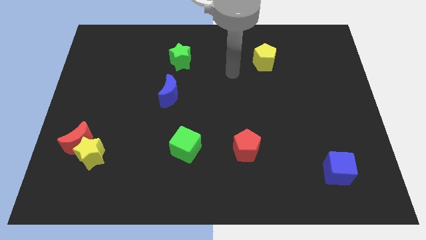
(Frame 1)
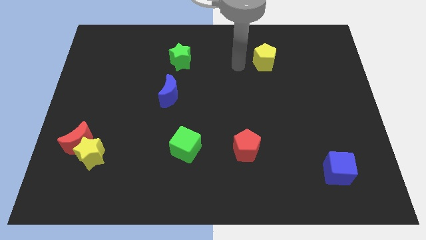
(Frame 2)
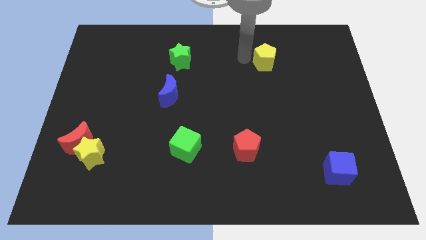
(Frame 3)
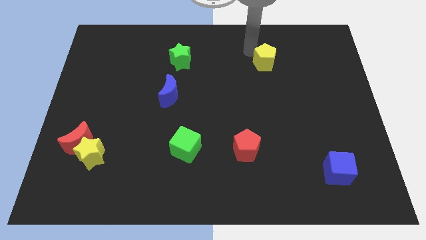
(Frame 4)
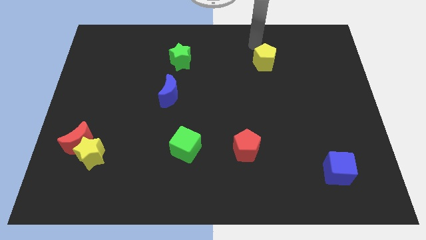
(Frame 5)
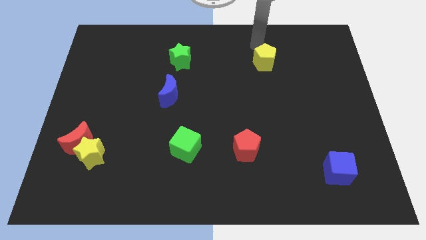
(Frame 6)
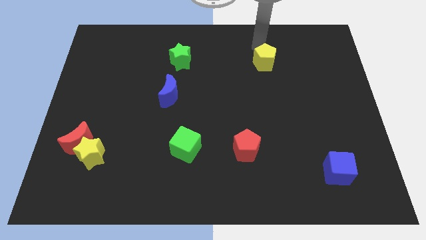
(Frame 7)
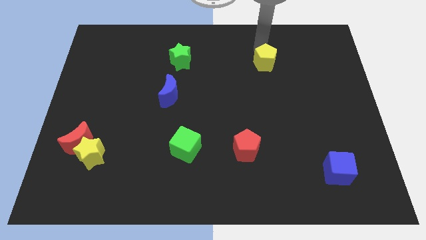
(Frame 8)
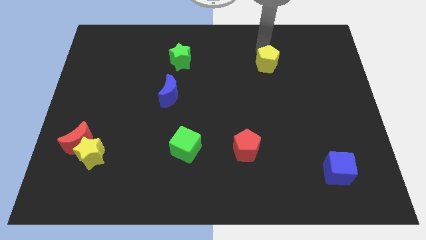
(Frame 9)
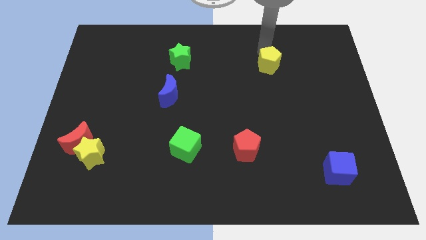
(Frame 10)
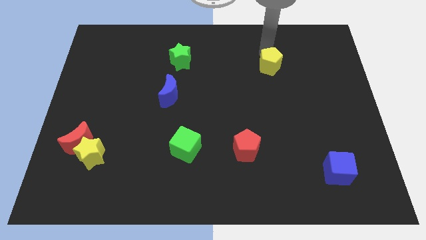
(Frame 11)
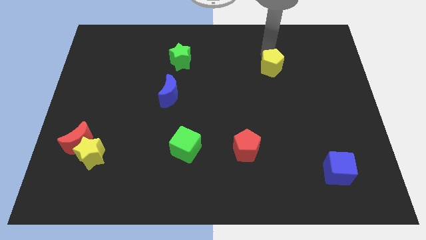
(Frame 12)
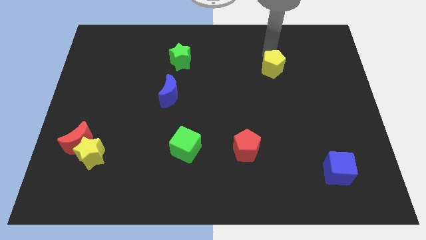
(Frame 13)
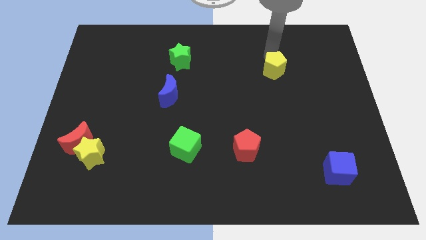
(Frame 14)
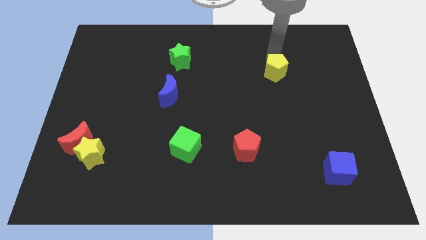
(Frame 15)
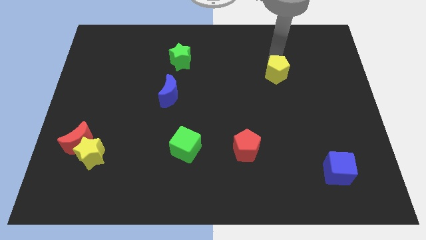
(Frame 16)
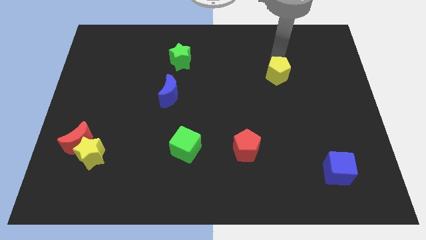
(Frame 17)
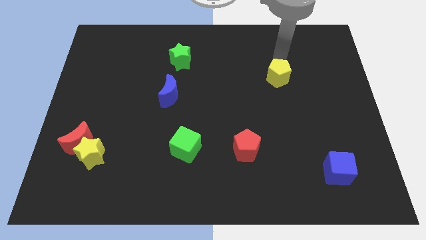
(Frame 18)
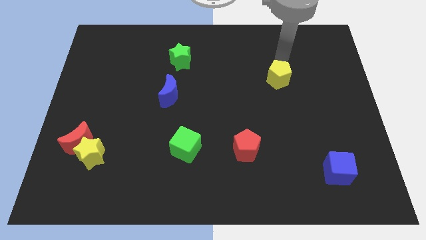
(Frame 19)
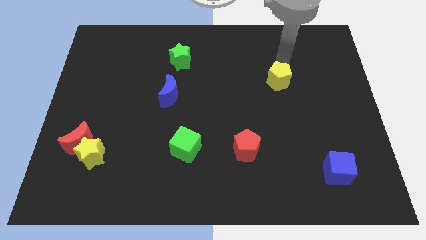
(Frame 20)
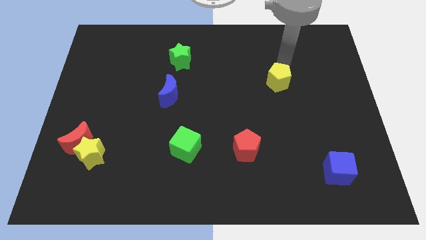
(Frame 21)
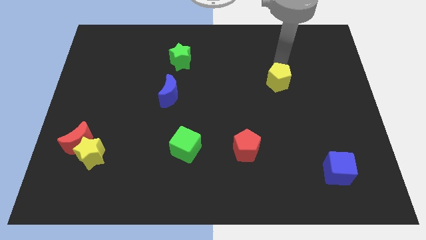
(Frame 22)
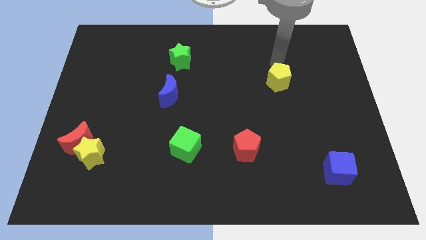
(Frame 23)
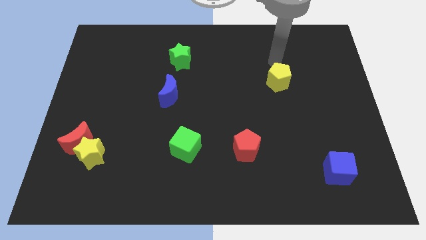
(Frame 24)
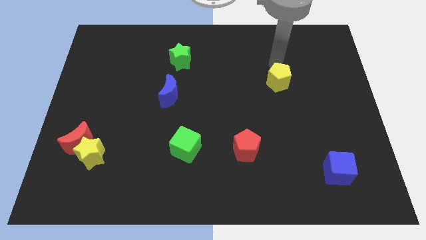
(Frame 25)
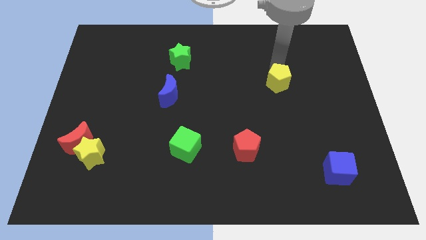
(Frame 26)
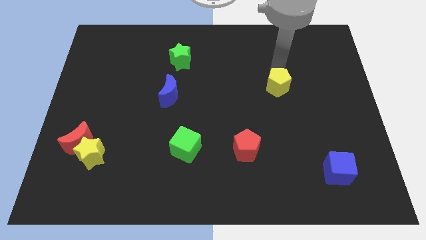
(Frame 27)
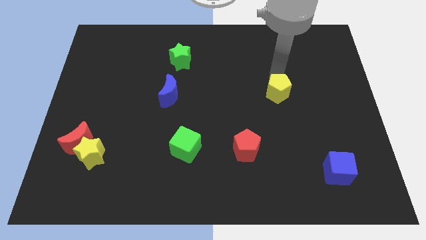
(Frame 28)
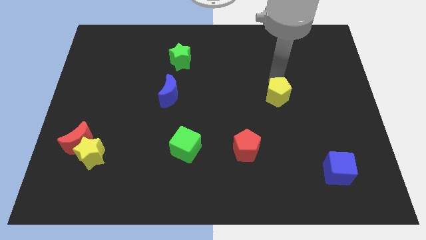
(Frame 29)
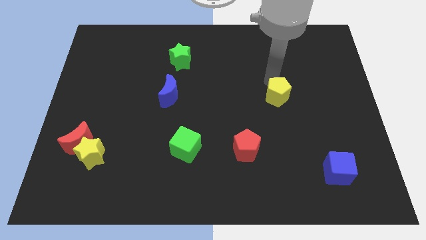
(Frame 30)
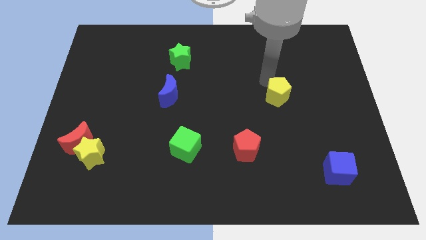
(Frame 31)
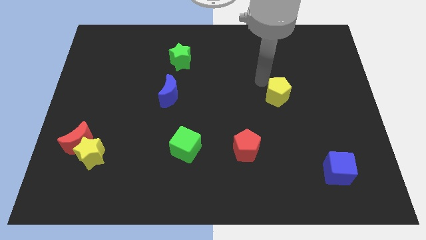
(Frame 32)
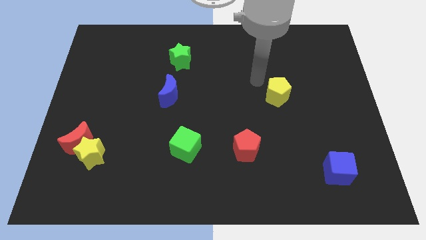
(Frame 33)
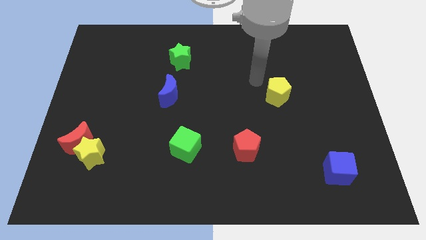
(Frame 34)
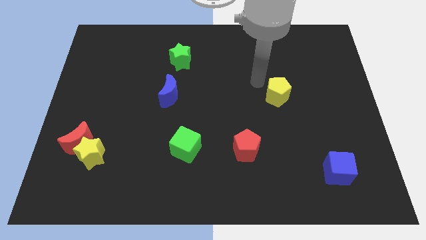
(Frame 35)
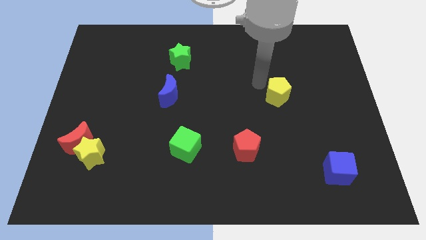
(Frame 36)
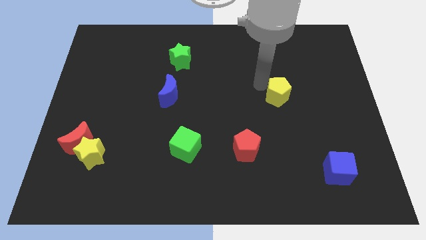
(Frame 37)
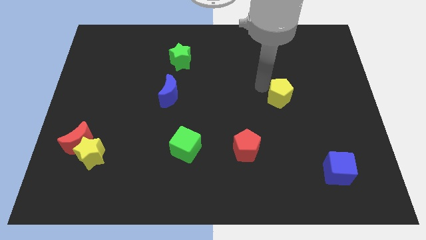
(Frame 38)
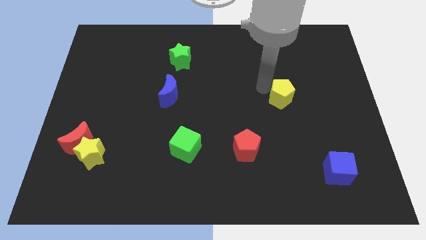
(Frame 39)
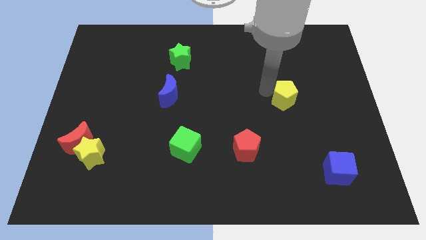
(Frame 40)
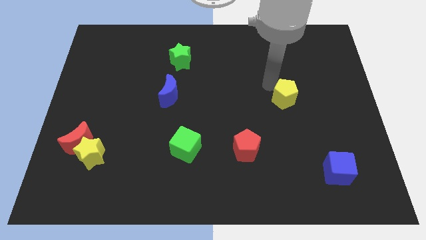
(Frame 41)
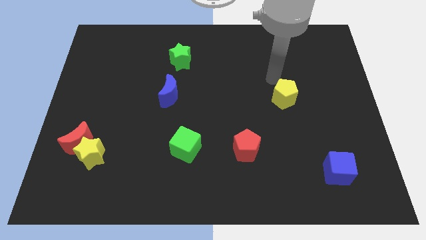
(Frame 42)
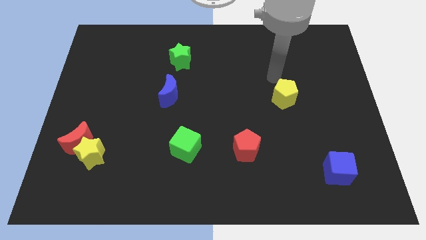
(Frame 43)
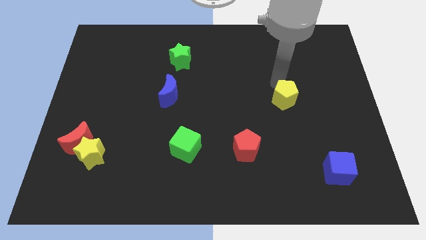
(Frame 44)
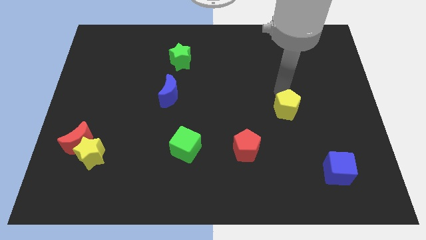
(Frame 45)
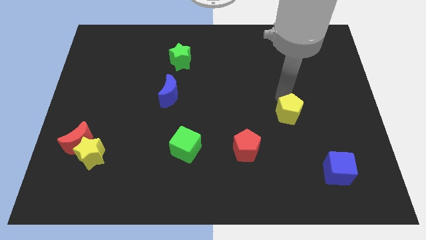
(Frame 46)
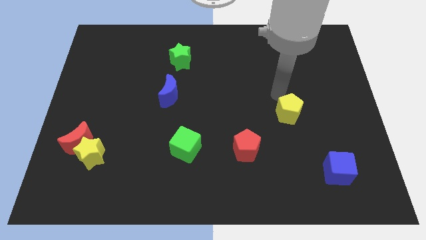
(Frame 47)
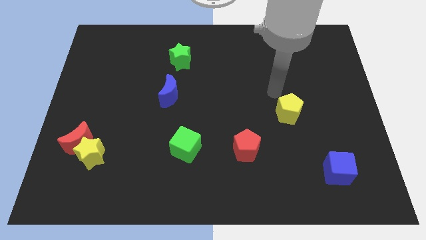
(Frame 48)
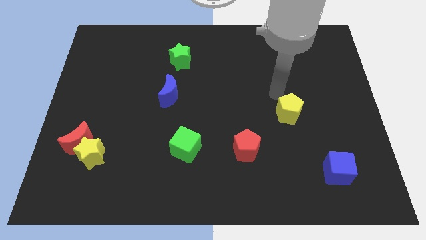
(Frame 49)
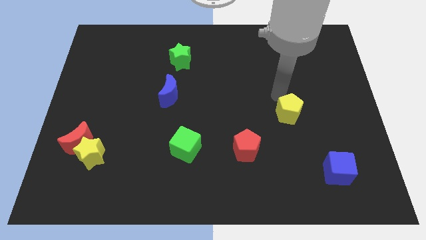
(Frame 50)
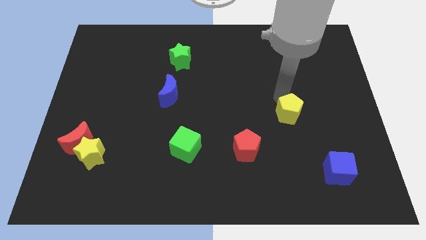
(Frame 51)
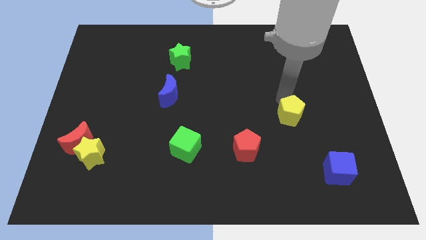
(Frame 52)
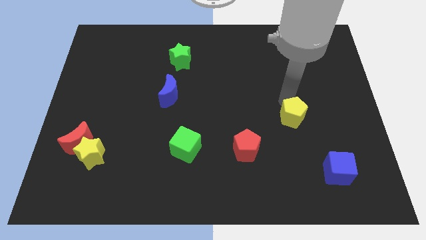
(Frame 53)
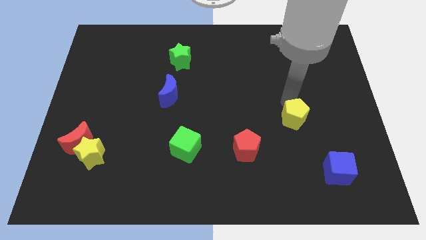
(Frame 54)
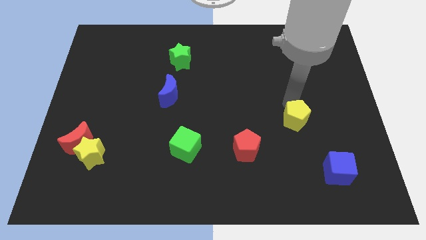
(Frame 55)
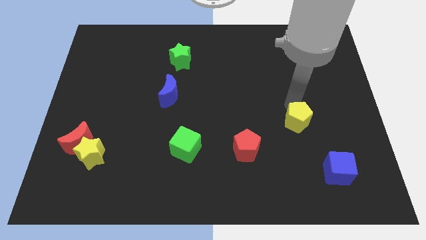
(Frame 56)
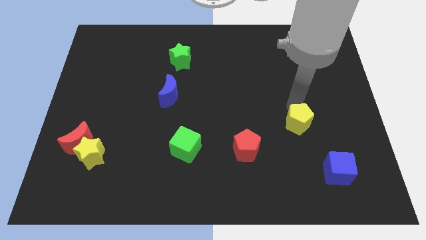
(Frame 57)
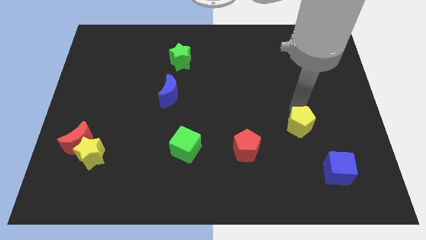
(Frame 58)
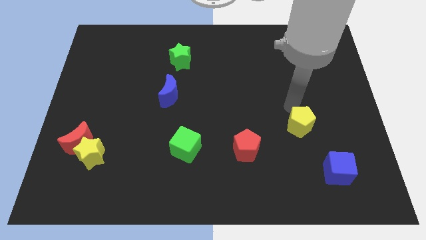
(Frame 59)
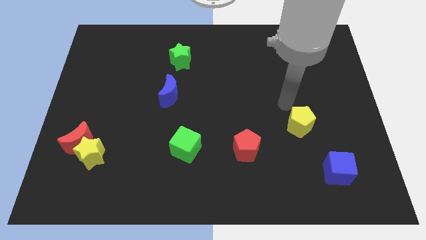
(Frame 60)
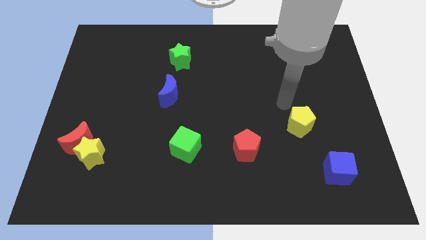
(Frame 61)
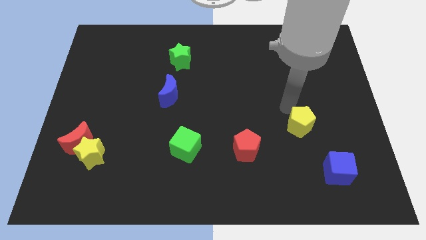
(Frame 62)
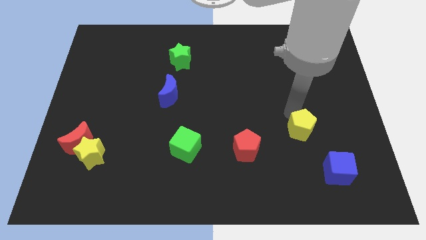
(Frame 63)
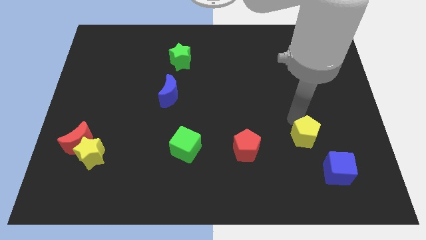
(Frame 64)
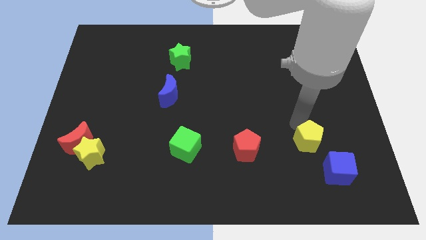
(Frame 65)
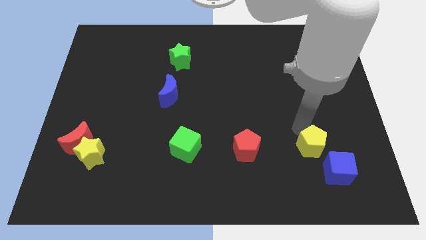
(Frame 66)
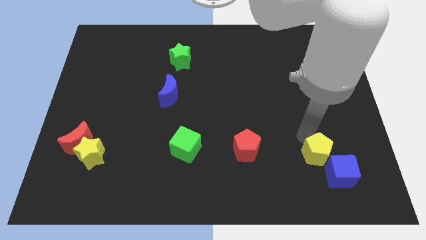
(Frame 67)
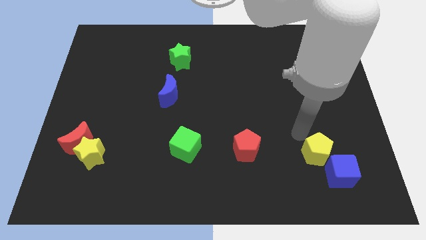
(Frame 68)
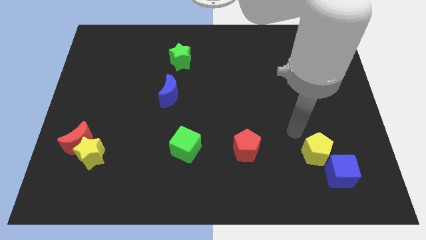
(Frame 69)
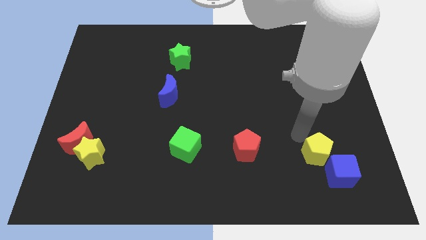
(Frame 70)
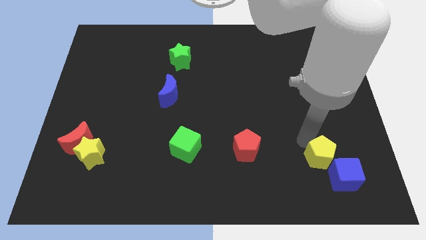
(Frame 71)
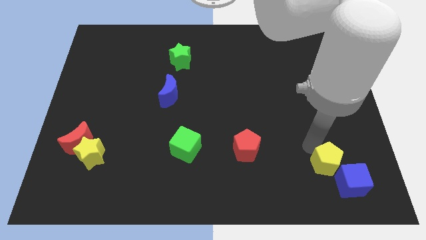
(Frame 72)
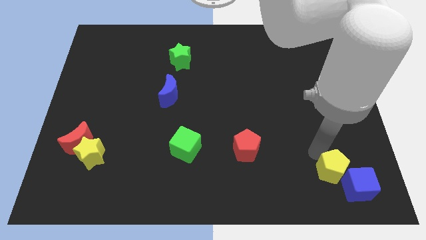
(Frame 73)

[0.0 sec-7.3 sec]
put the yellow pentagon towards the blue cube

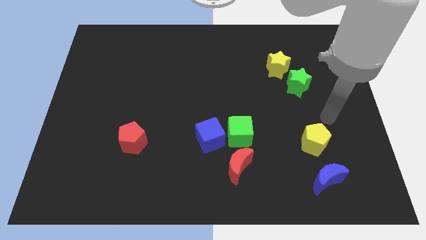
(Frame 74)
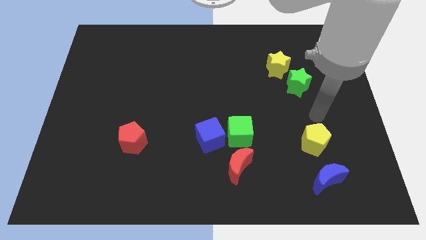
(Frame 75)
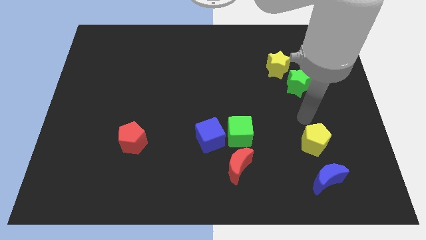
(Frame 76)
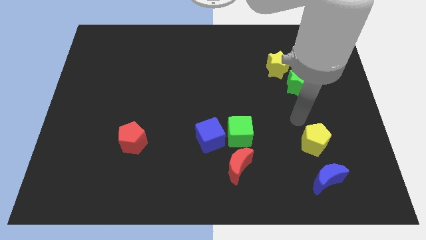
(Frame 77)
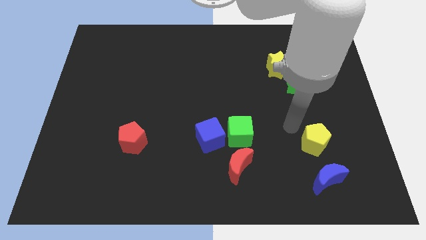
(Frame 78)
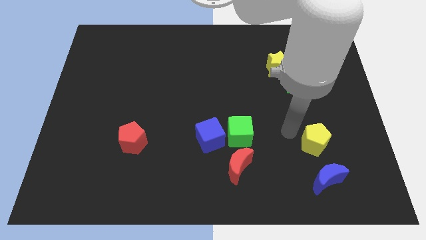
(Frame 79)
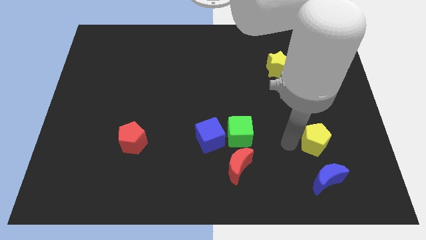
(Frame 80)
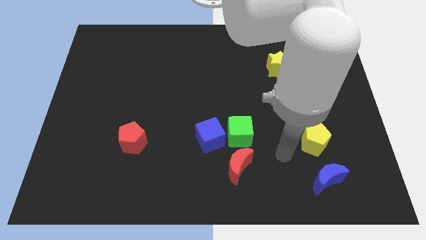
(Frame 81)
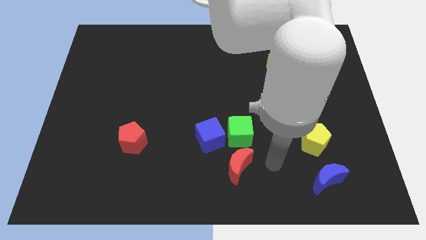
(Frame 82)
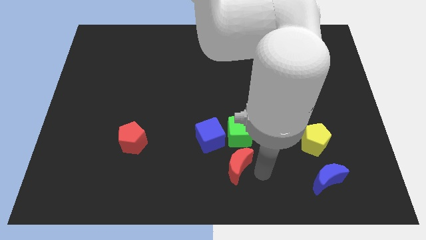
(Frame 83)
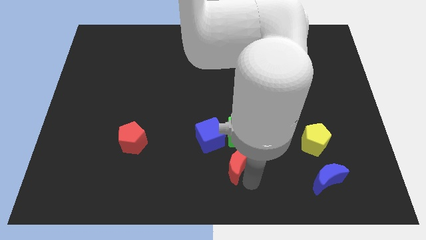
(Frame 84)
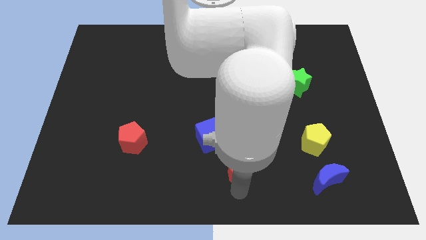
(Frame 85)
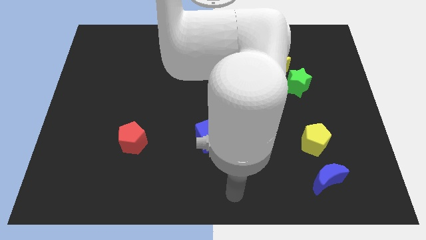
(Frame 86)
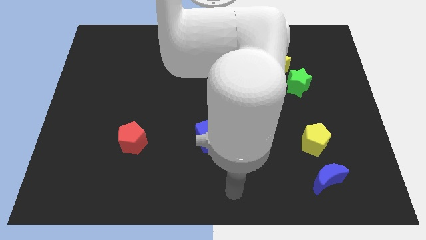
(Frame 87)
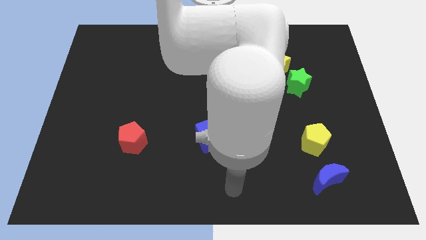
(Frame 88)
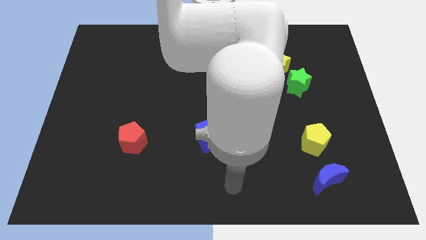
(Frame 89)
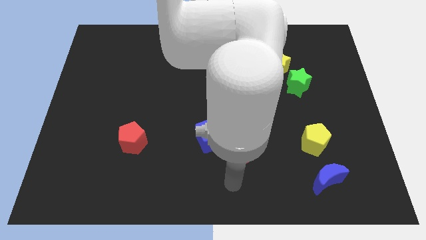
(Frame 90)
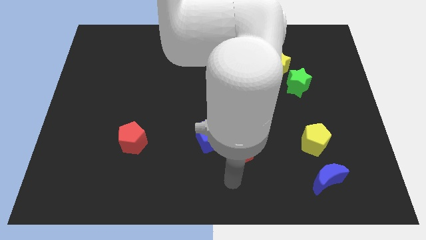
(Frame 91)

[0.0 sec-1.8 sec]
move the red moon towards the green cube
